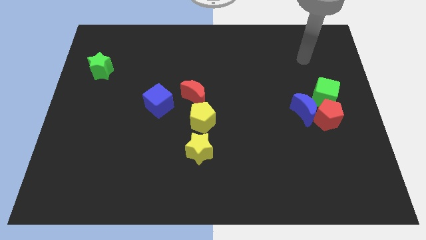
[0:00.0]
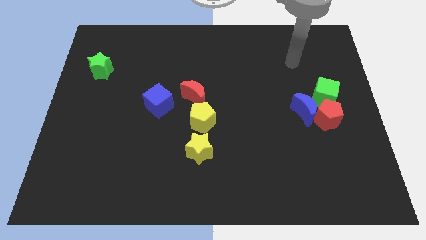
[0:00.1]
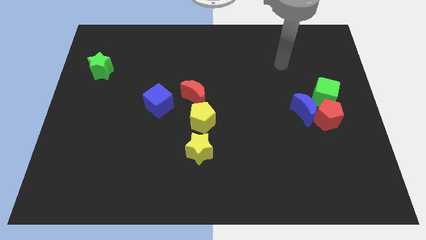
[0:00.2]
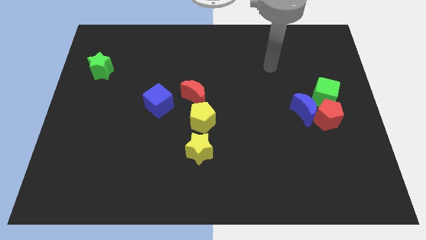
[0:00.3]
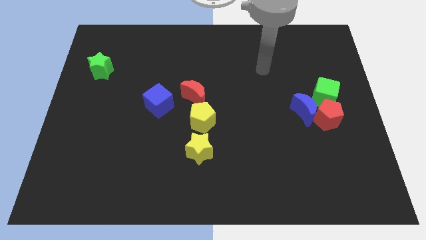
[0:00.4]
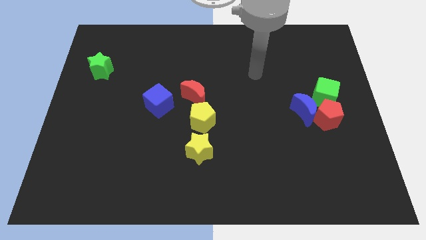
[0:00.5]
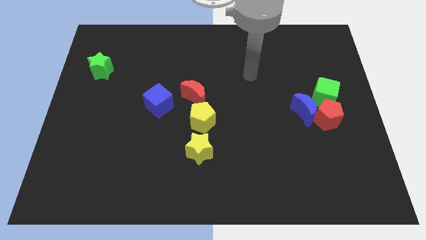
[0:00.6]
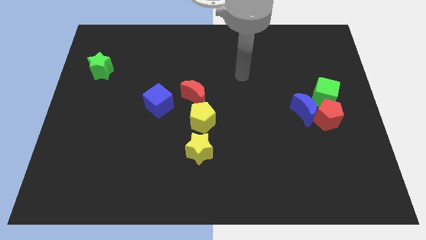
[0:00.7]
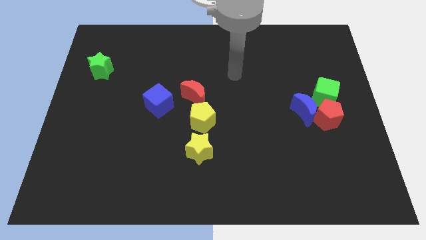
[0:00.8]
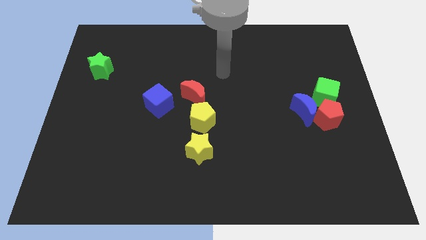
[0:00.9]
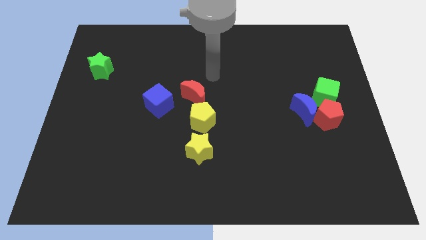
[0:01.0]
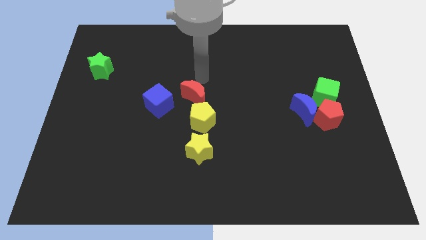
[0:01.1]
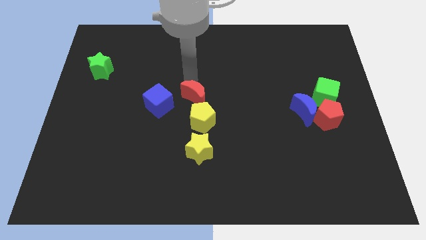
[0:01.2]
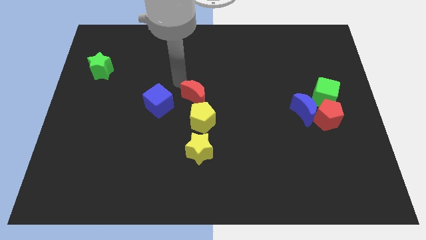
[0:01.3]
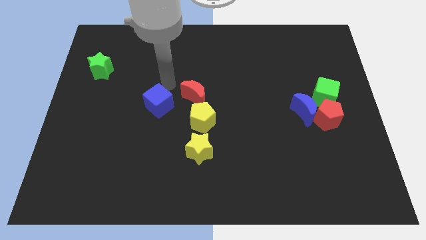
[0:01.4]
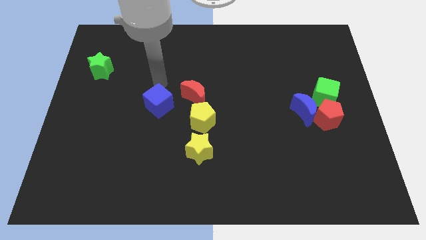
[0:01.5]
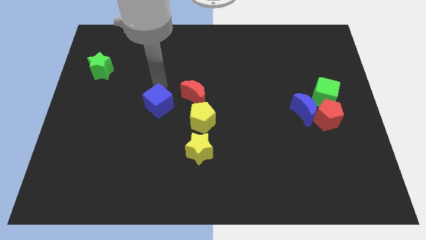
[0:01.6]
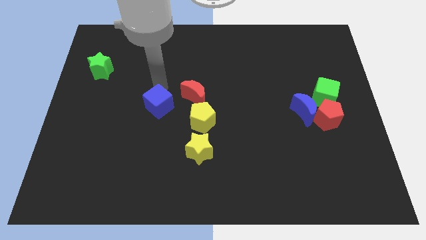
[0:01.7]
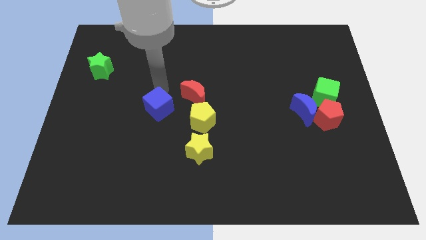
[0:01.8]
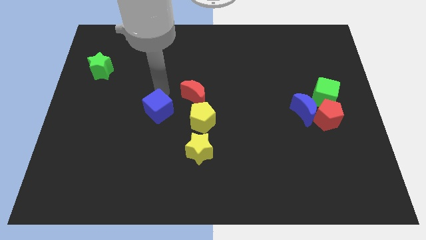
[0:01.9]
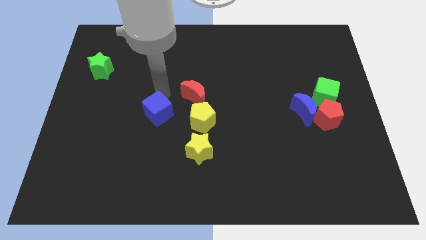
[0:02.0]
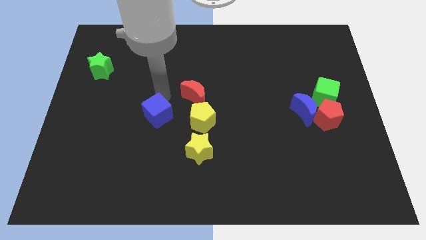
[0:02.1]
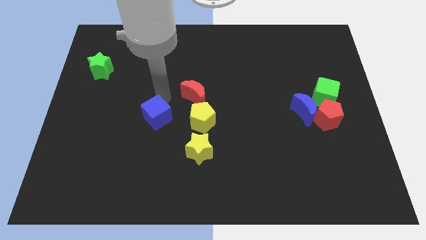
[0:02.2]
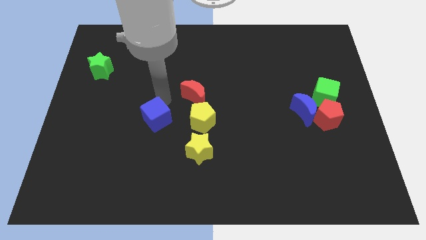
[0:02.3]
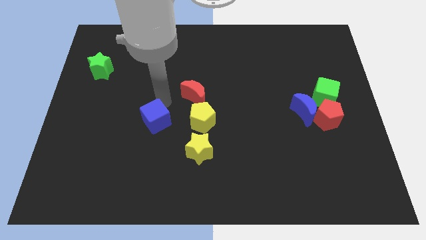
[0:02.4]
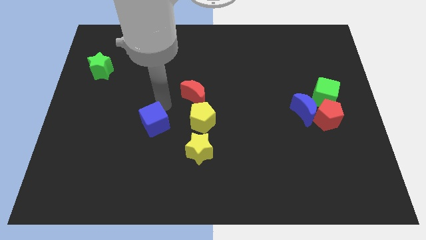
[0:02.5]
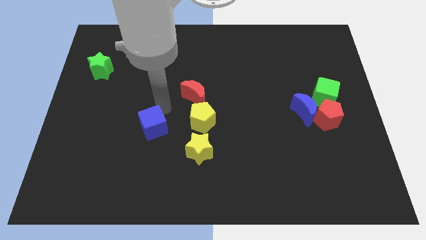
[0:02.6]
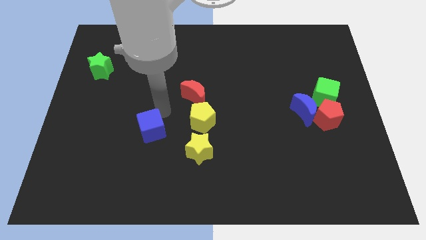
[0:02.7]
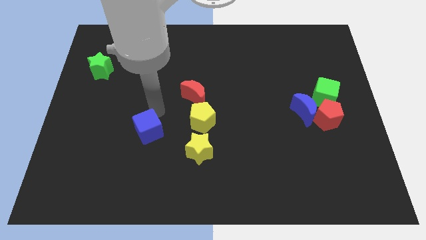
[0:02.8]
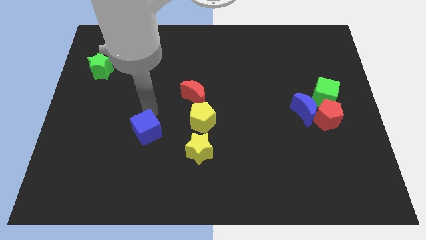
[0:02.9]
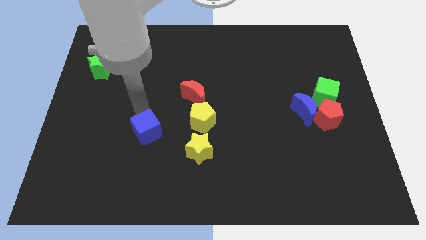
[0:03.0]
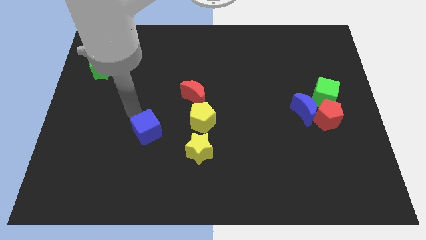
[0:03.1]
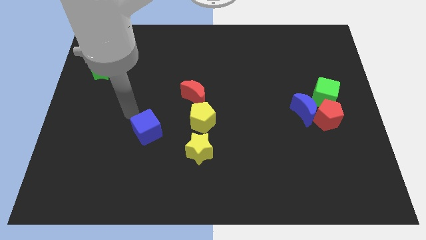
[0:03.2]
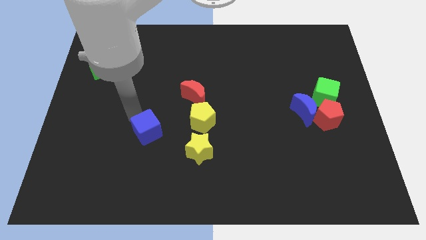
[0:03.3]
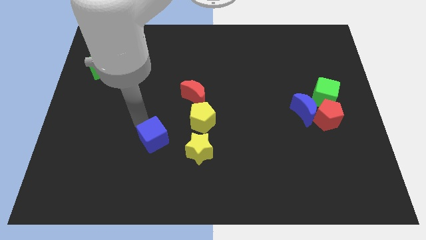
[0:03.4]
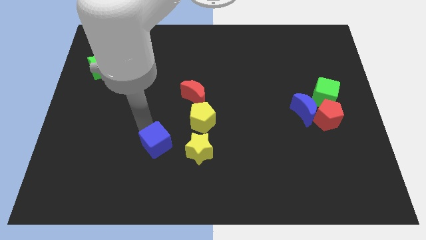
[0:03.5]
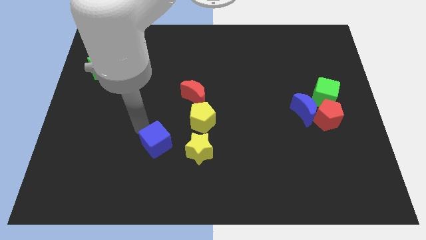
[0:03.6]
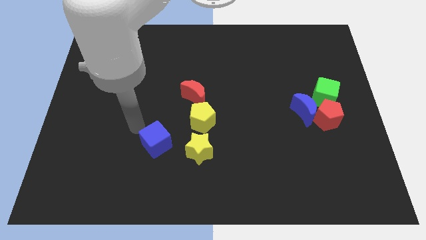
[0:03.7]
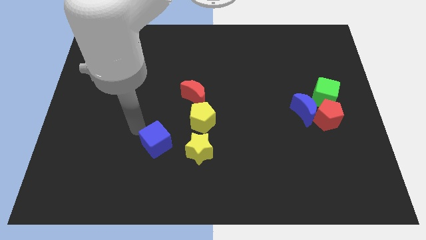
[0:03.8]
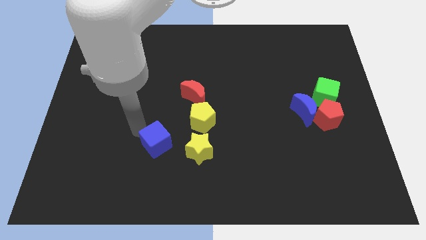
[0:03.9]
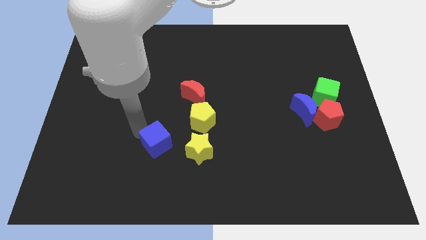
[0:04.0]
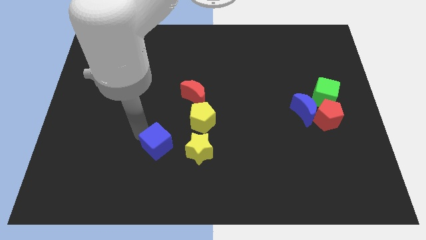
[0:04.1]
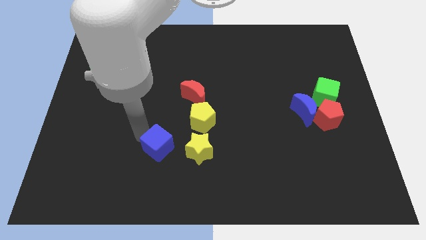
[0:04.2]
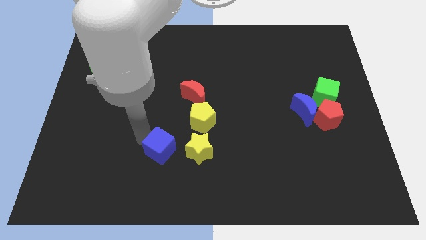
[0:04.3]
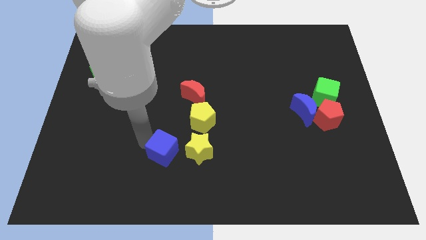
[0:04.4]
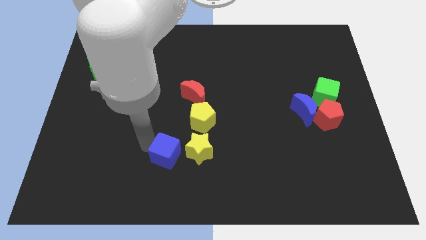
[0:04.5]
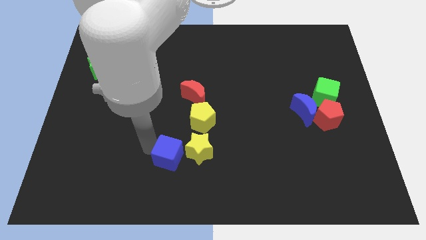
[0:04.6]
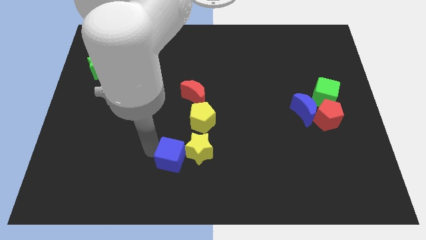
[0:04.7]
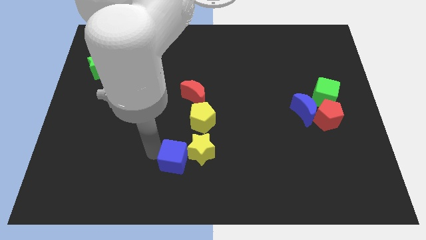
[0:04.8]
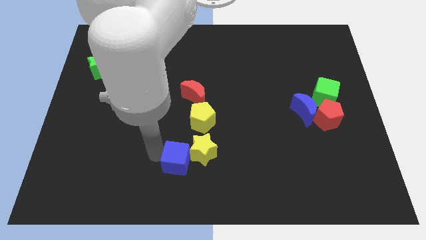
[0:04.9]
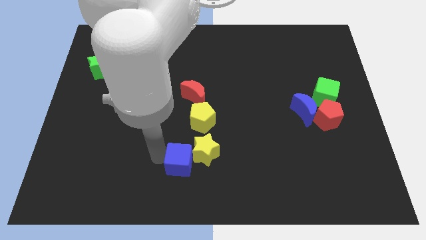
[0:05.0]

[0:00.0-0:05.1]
push the blue cube to the bottom of the yellow pentagon

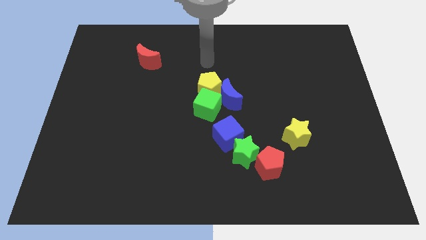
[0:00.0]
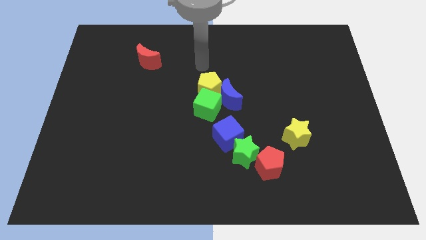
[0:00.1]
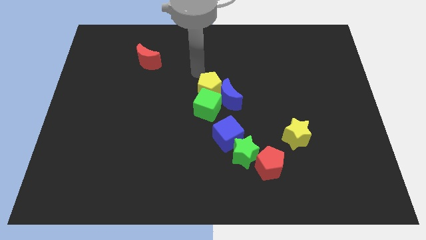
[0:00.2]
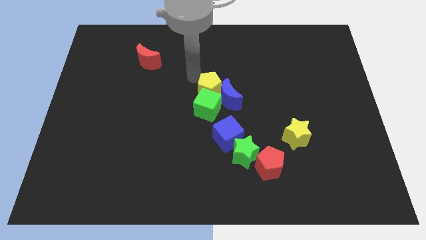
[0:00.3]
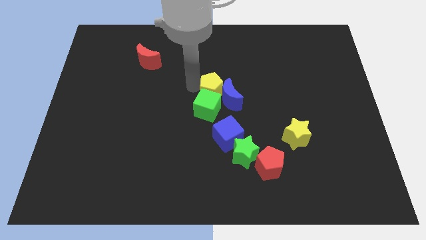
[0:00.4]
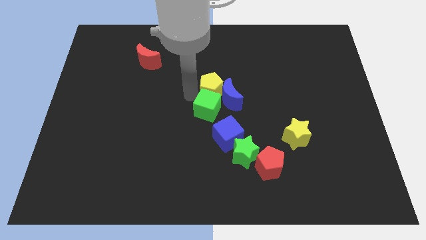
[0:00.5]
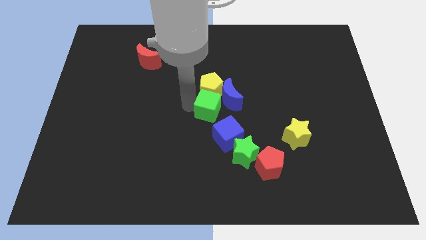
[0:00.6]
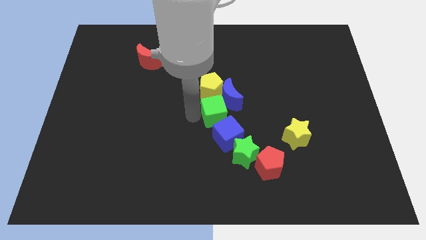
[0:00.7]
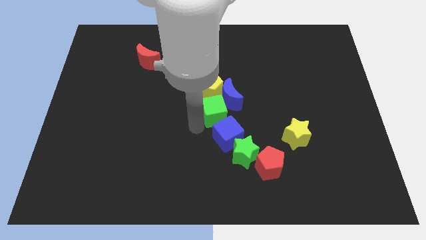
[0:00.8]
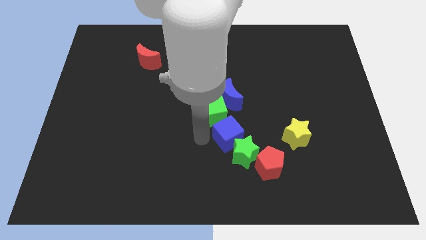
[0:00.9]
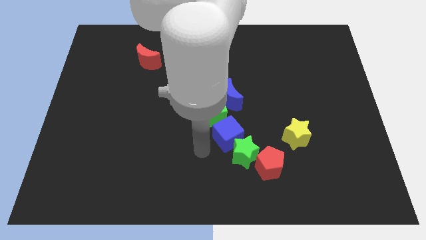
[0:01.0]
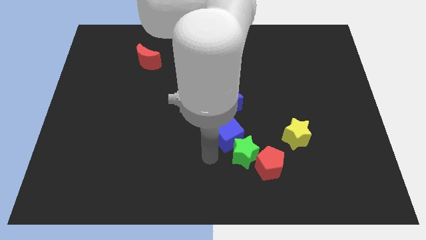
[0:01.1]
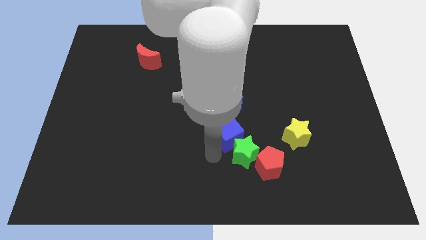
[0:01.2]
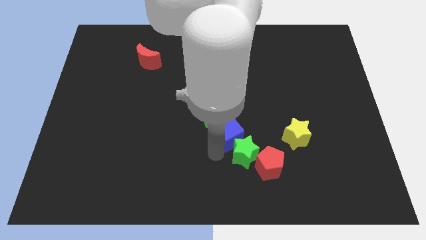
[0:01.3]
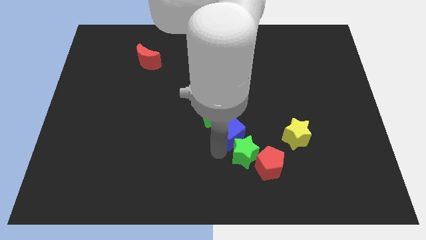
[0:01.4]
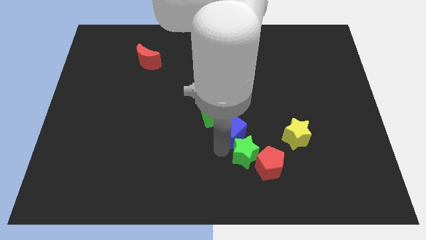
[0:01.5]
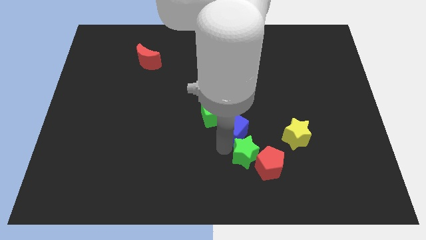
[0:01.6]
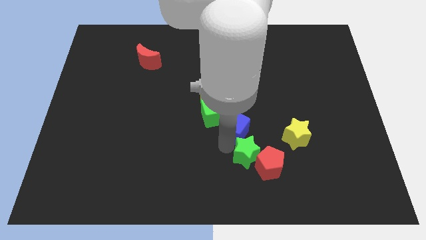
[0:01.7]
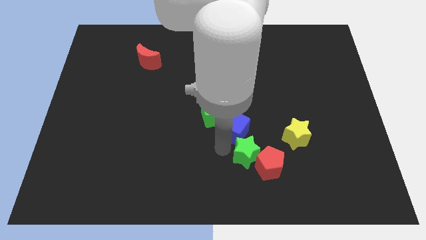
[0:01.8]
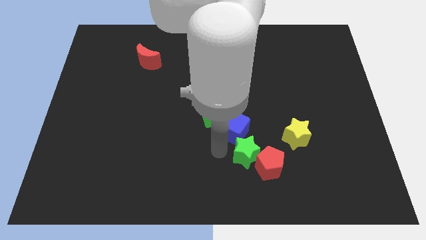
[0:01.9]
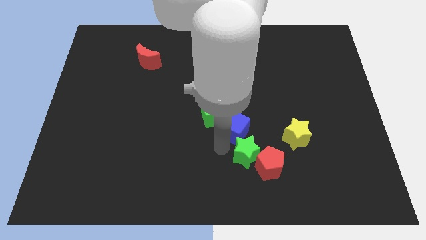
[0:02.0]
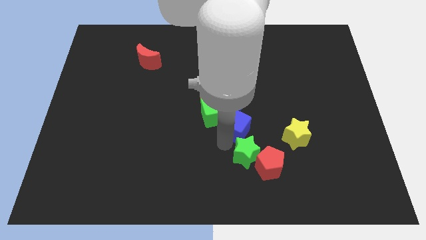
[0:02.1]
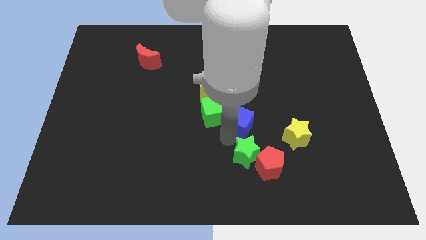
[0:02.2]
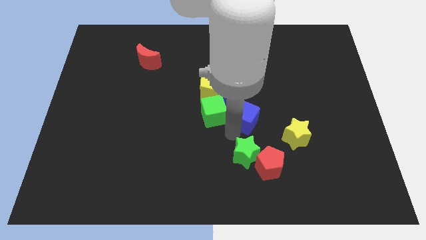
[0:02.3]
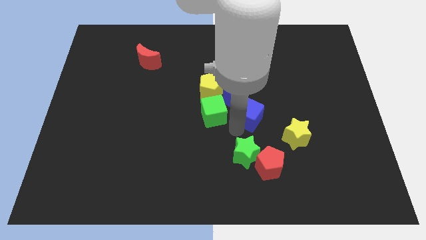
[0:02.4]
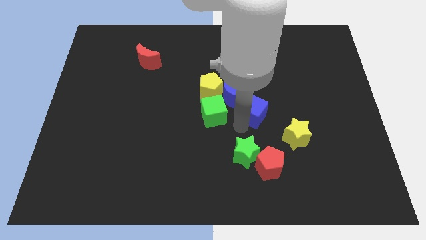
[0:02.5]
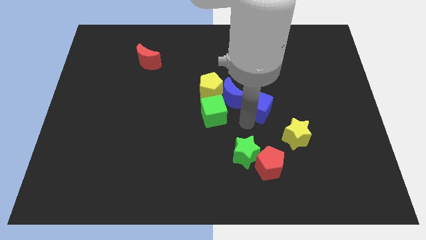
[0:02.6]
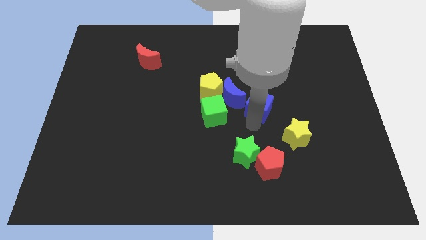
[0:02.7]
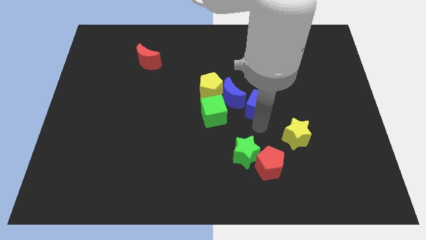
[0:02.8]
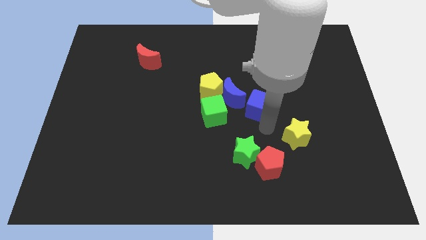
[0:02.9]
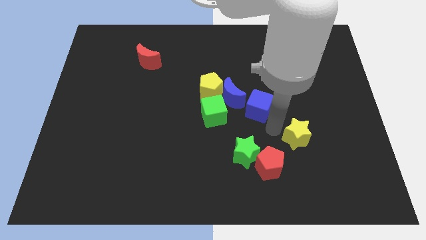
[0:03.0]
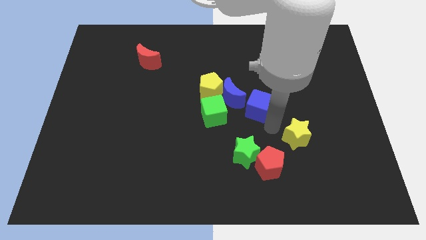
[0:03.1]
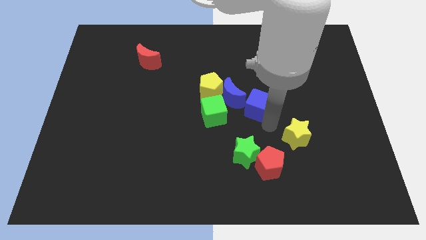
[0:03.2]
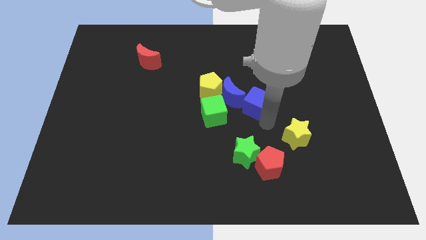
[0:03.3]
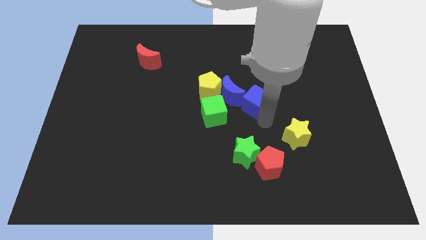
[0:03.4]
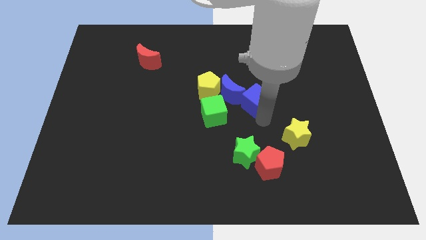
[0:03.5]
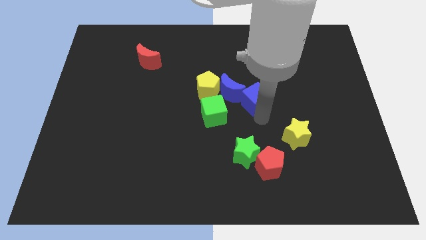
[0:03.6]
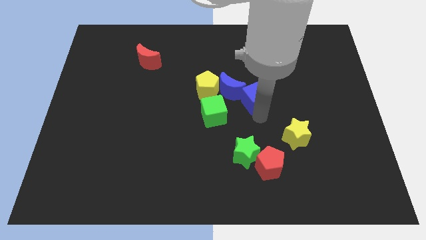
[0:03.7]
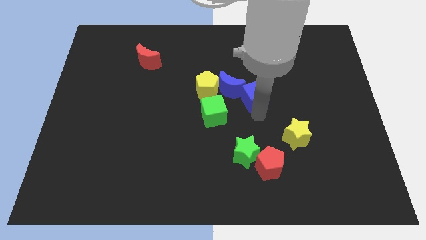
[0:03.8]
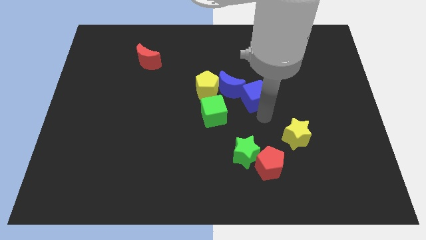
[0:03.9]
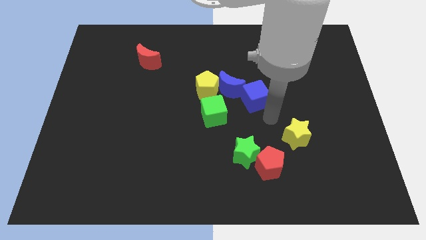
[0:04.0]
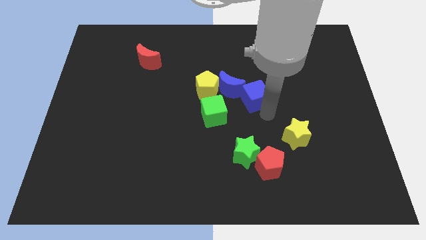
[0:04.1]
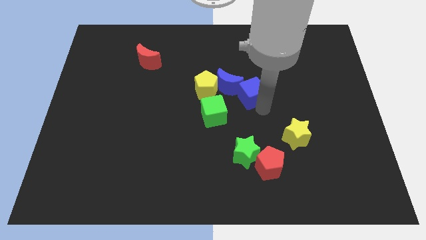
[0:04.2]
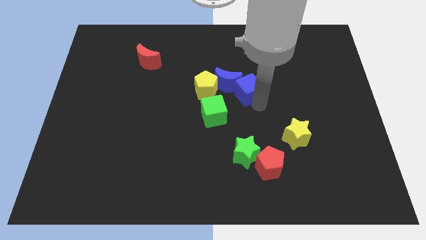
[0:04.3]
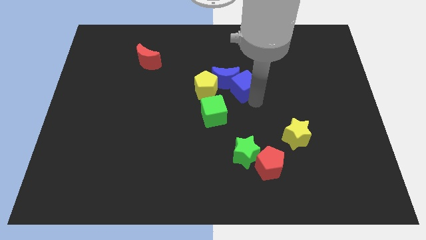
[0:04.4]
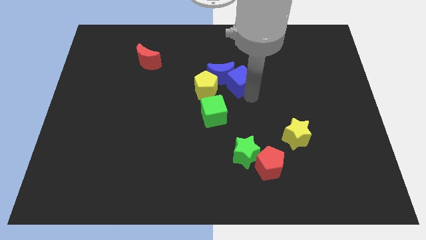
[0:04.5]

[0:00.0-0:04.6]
put the blue cube to the top right side of the yellow pentagon
